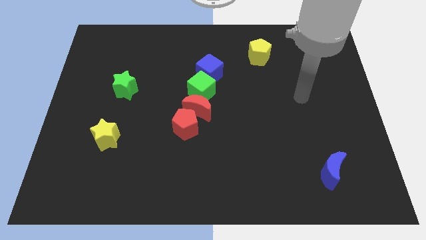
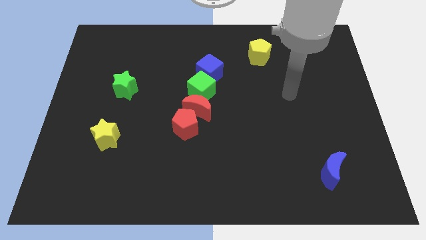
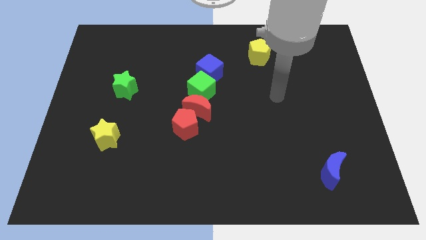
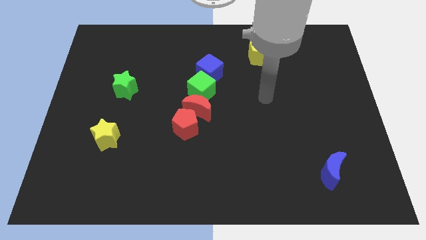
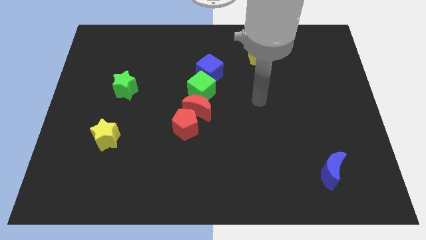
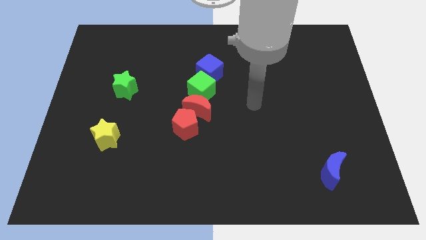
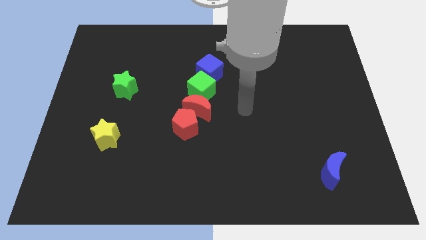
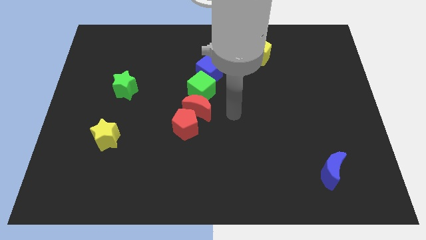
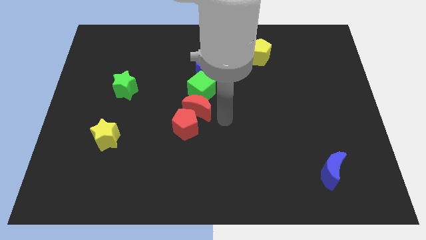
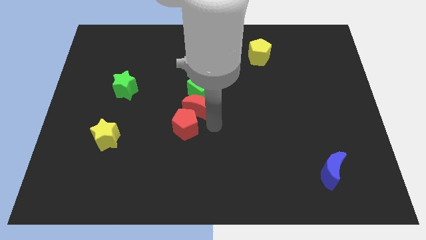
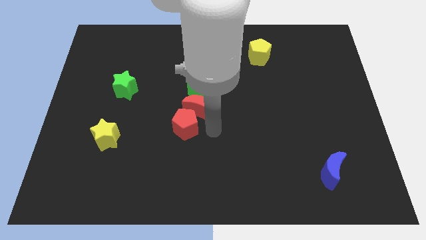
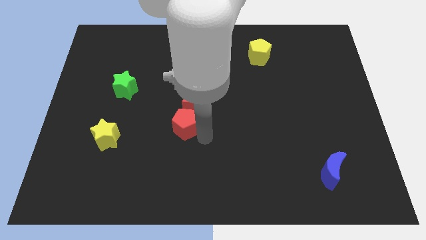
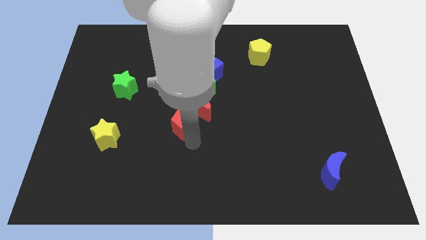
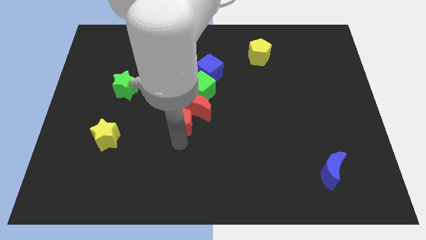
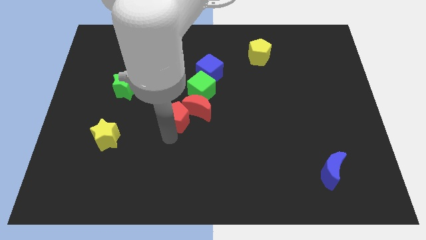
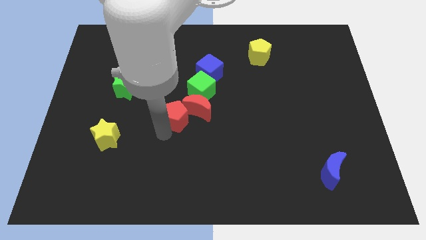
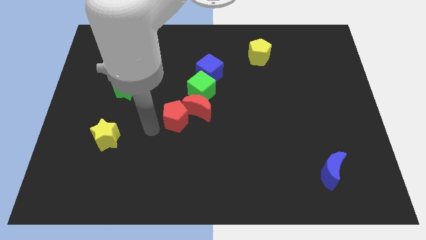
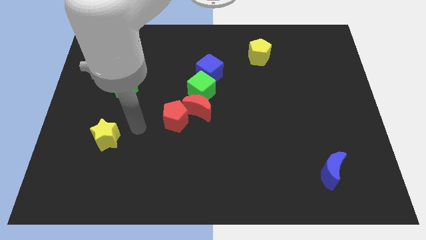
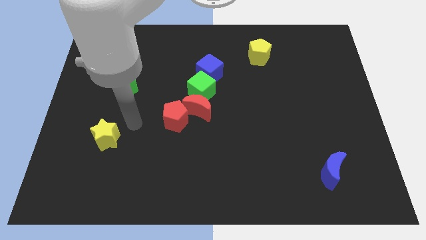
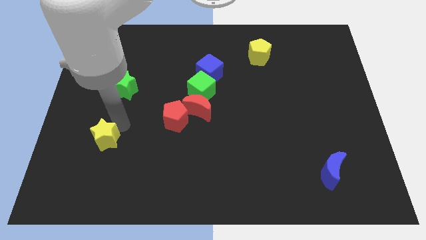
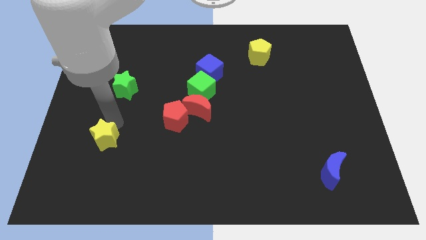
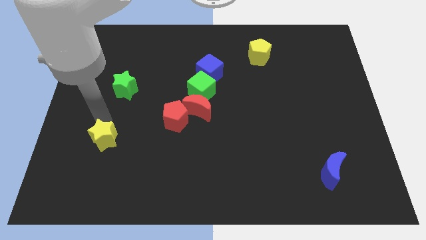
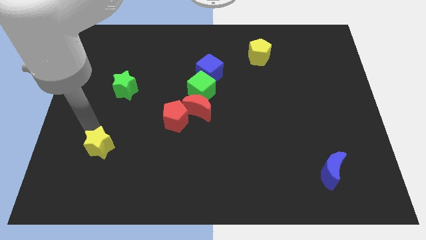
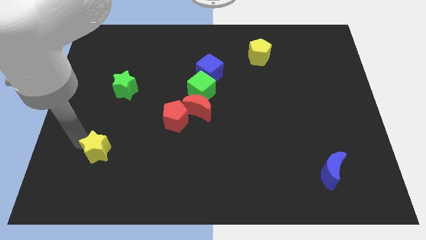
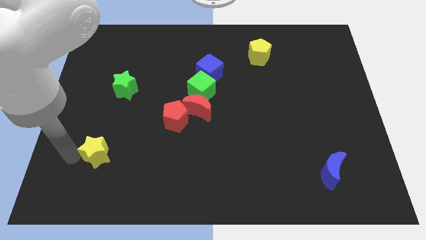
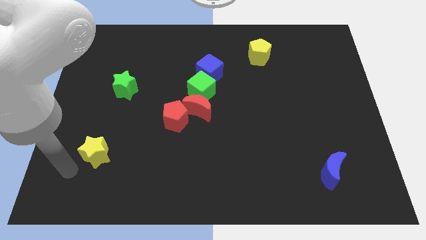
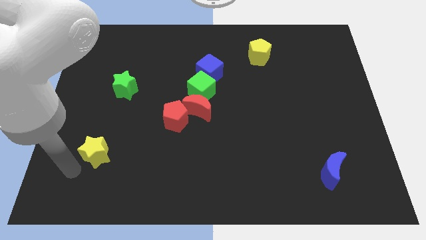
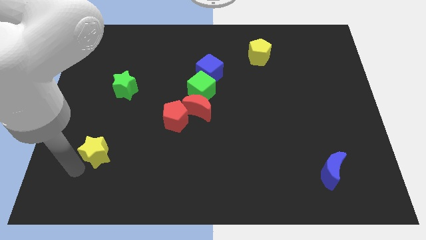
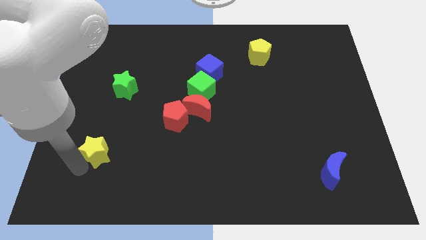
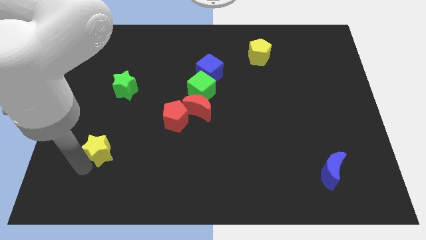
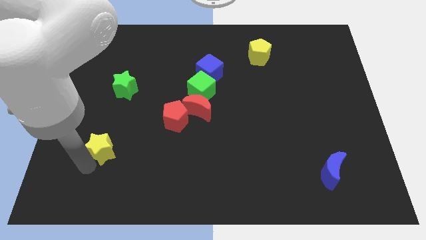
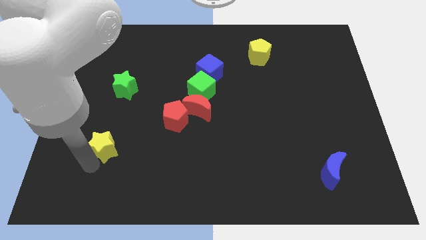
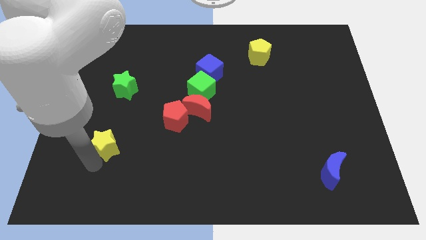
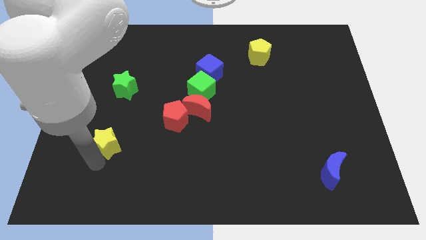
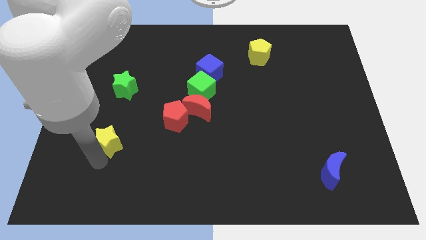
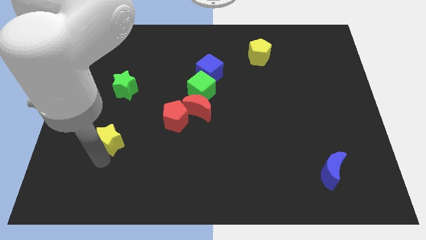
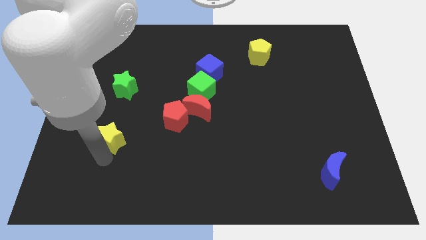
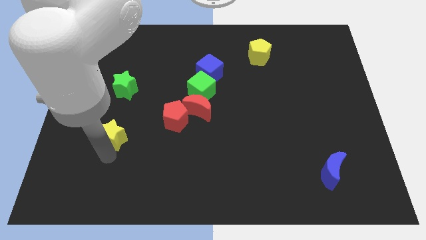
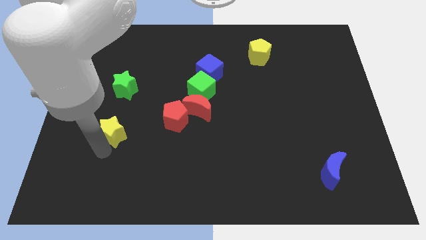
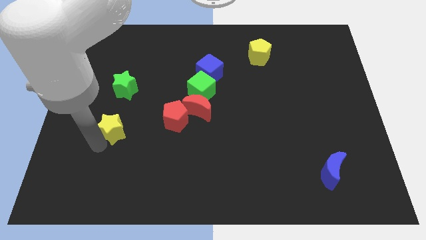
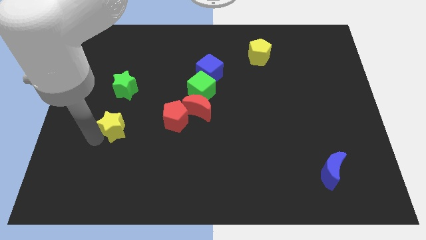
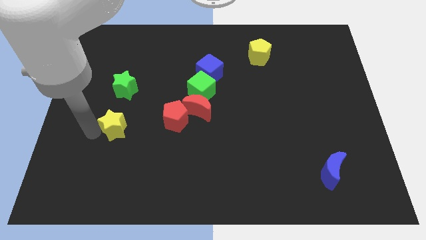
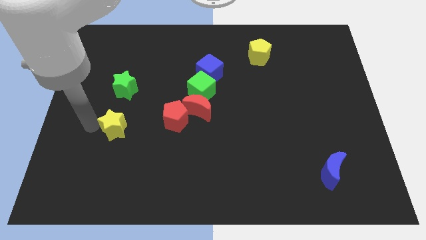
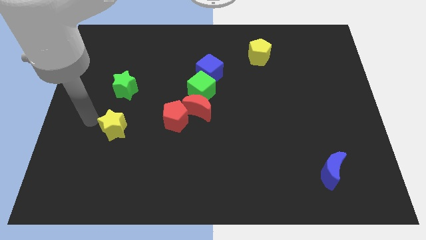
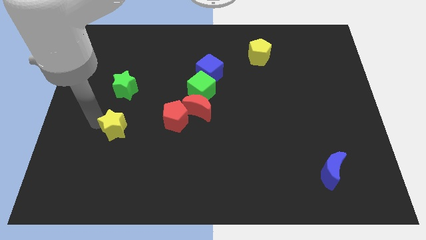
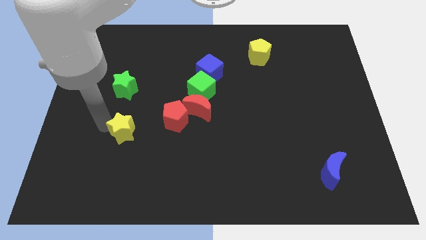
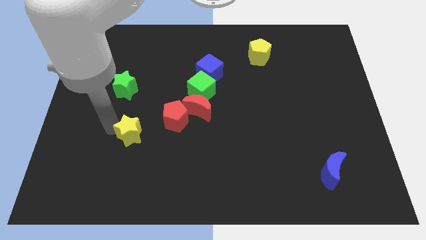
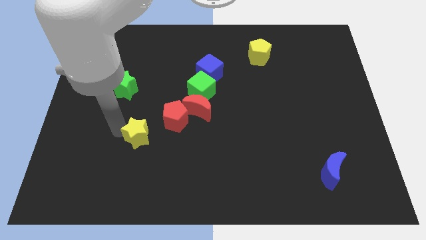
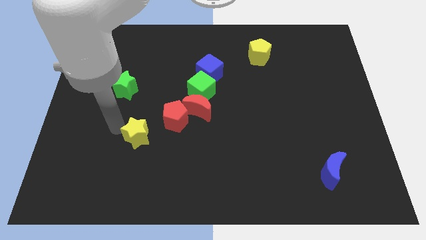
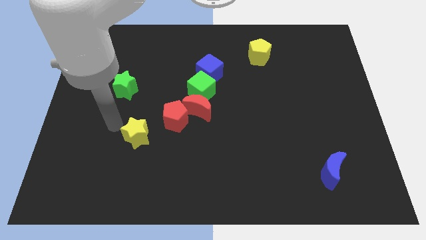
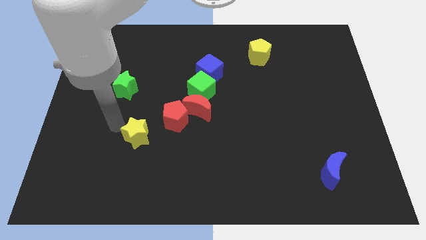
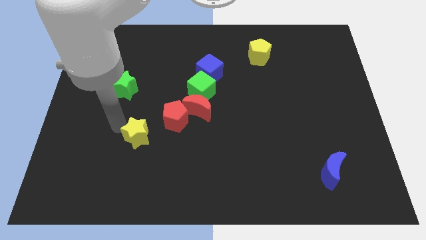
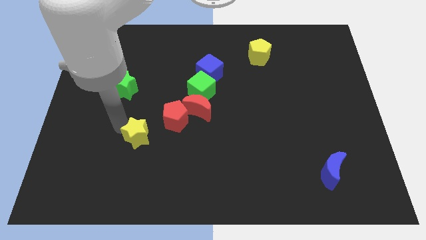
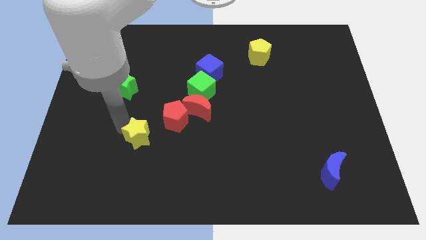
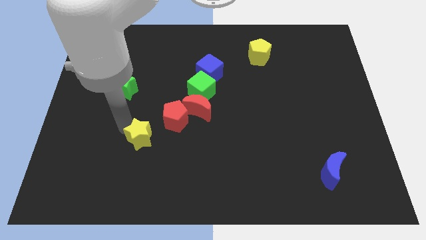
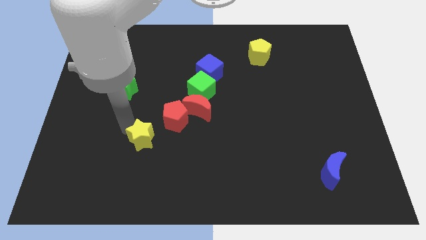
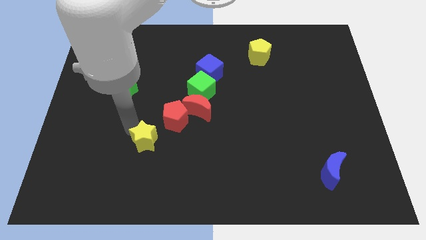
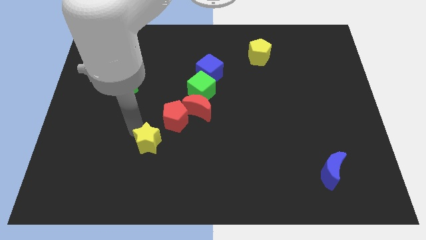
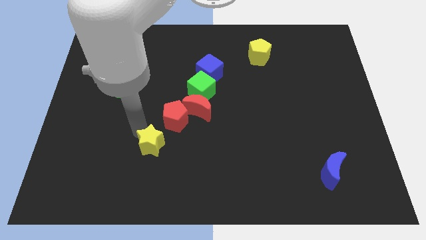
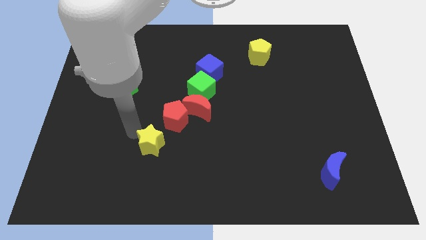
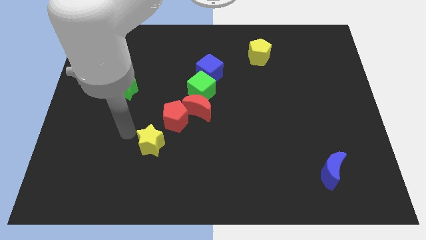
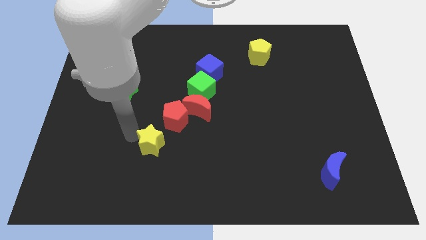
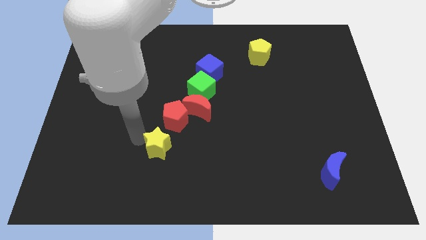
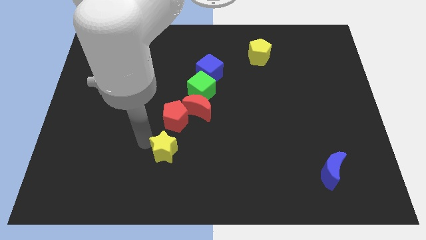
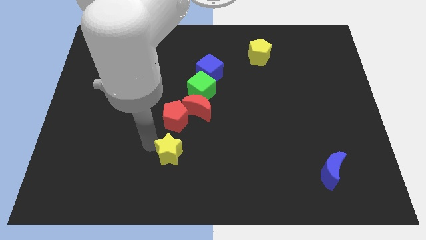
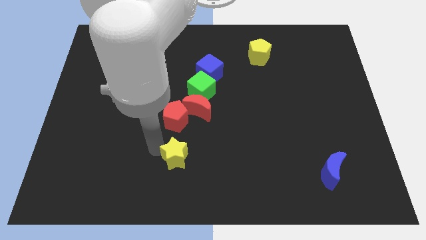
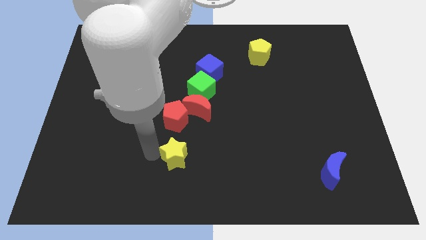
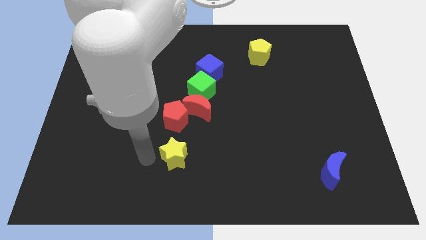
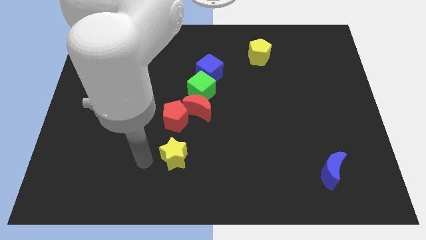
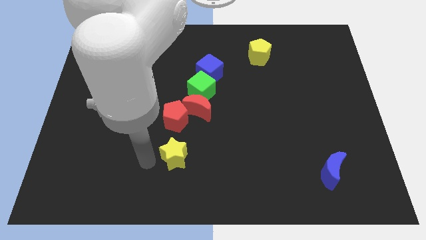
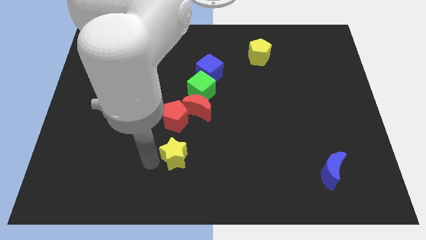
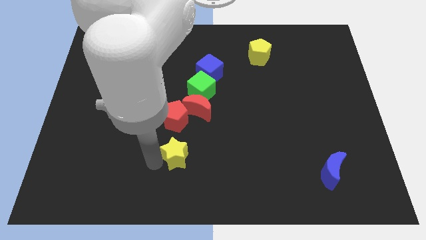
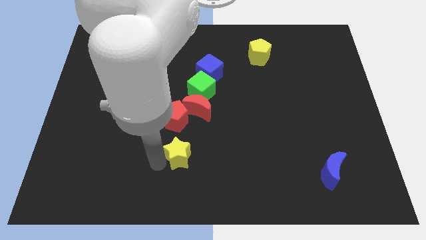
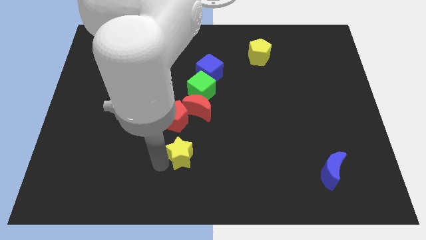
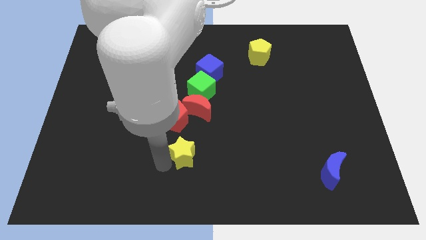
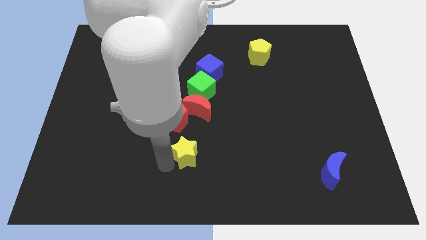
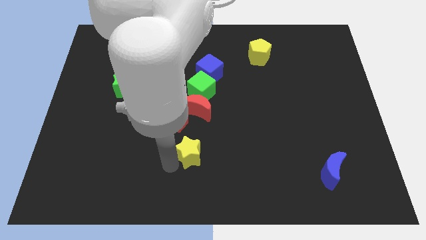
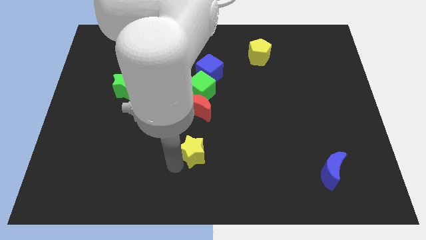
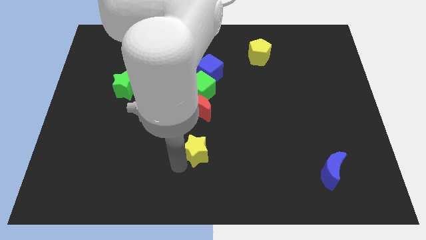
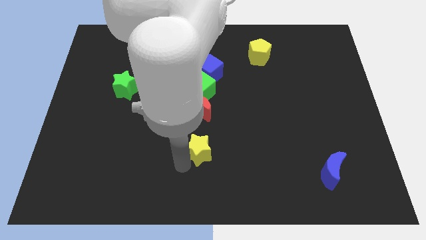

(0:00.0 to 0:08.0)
slide the yellow star to the right
